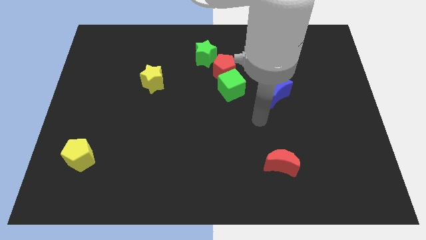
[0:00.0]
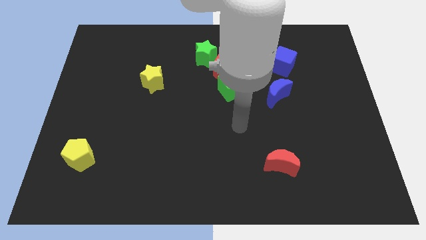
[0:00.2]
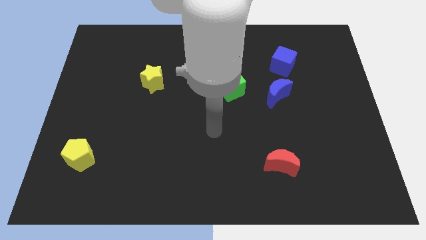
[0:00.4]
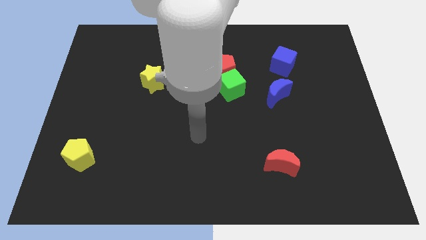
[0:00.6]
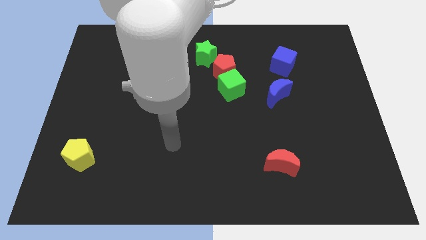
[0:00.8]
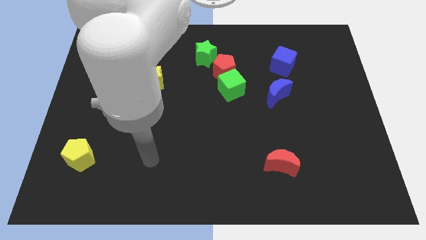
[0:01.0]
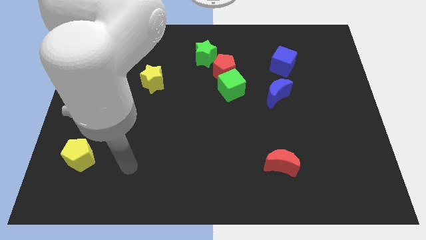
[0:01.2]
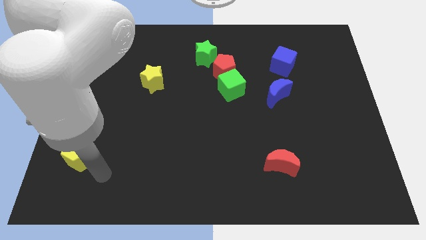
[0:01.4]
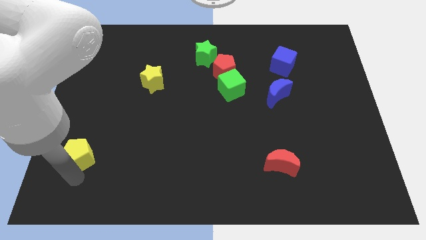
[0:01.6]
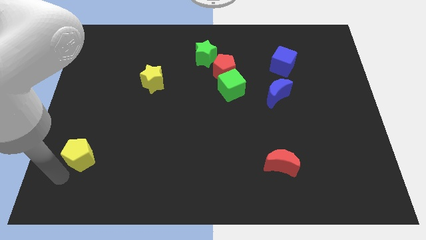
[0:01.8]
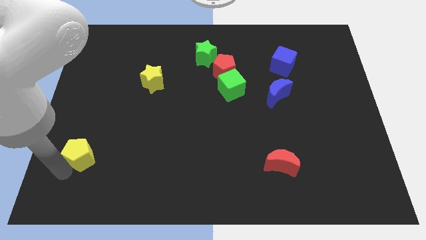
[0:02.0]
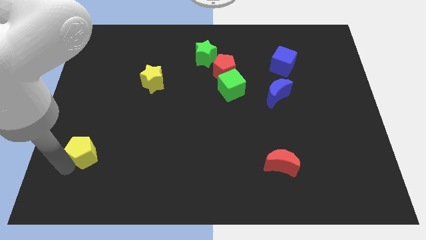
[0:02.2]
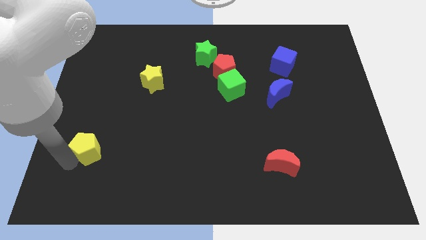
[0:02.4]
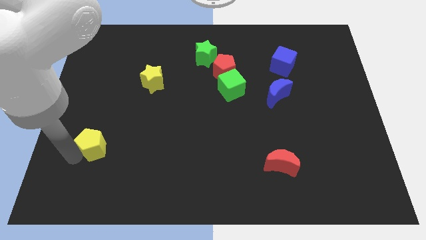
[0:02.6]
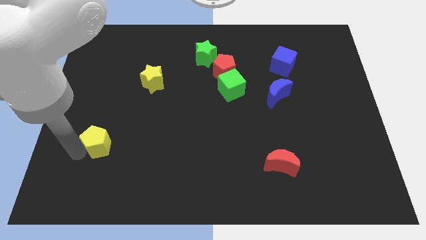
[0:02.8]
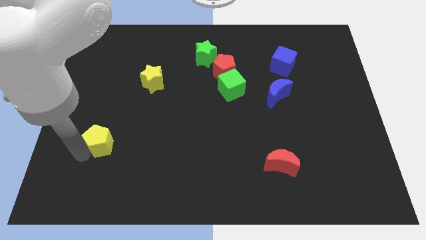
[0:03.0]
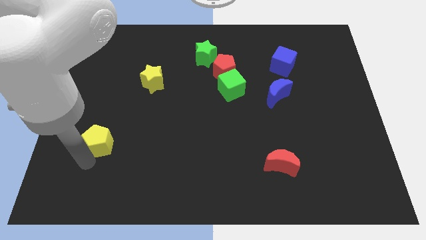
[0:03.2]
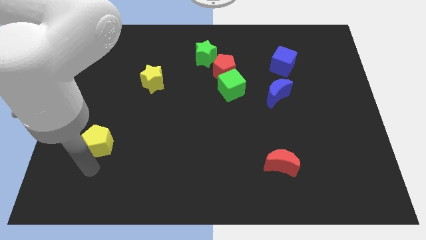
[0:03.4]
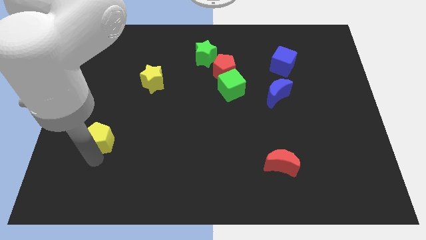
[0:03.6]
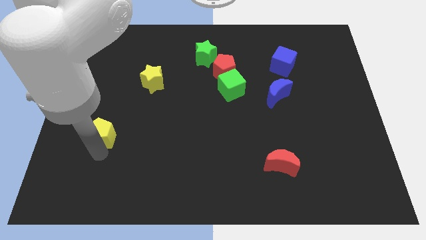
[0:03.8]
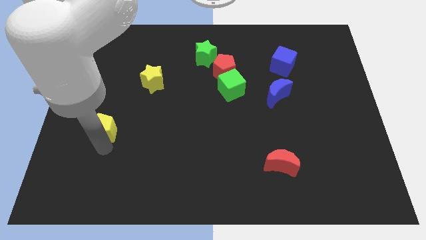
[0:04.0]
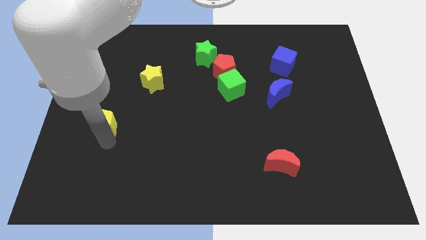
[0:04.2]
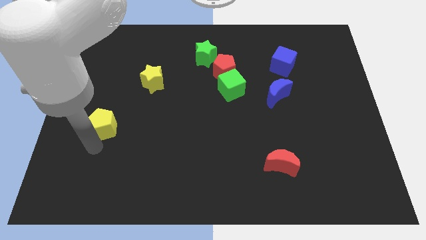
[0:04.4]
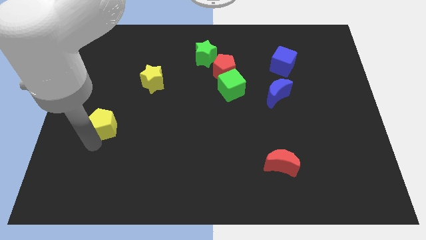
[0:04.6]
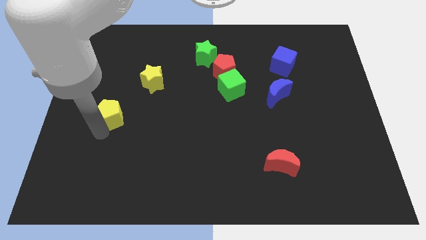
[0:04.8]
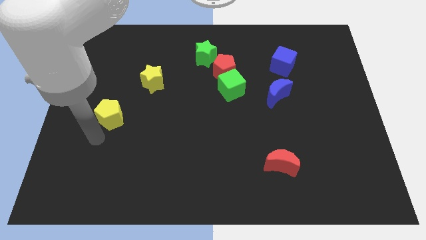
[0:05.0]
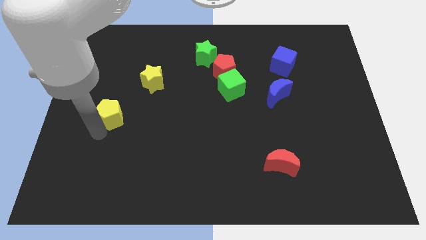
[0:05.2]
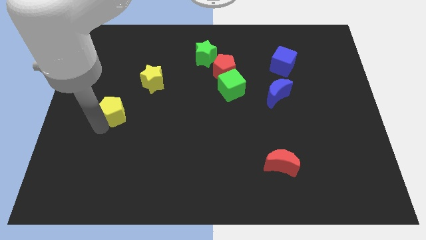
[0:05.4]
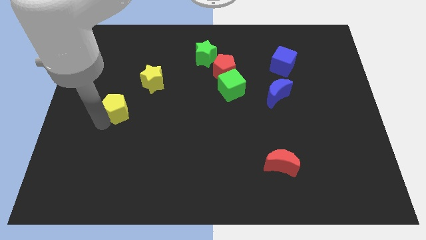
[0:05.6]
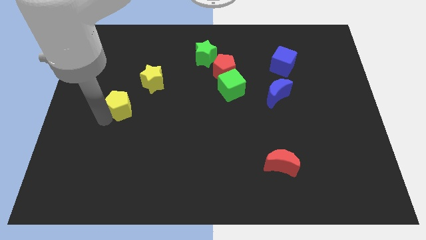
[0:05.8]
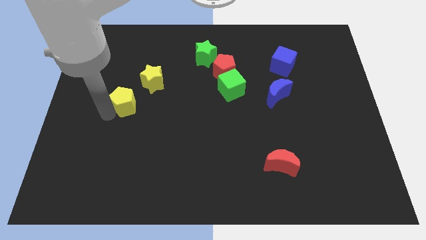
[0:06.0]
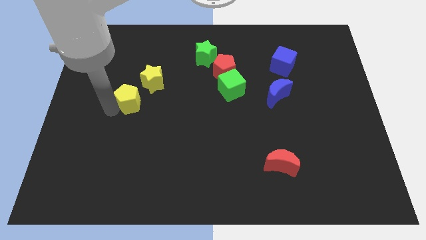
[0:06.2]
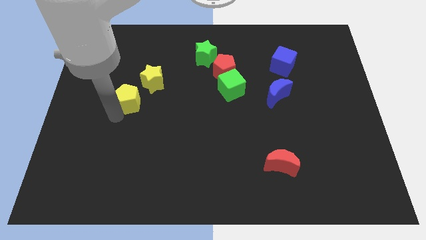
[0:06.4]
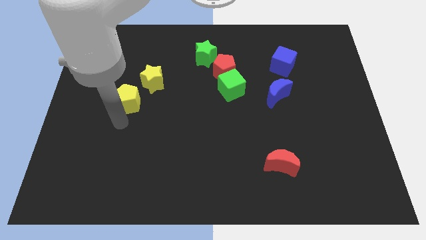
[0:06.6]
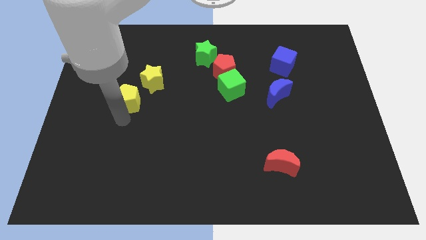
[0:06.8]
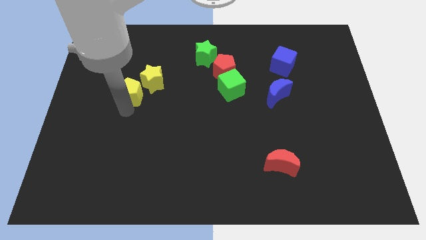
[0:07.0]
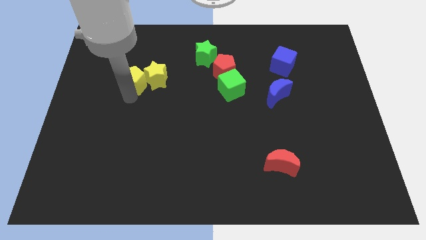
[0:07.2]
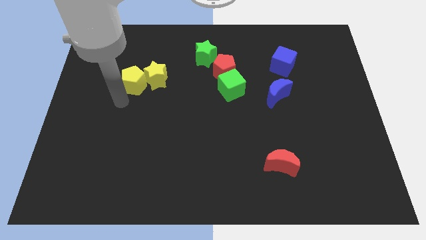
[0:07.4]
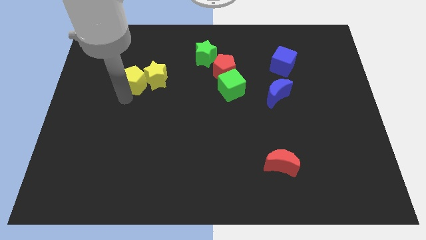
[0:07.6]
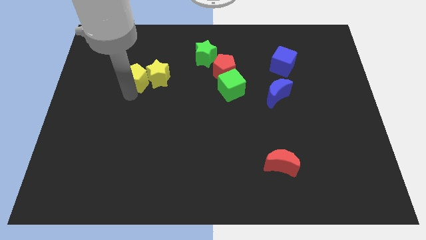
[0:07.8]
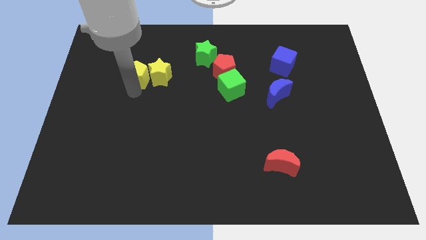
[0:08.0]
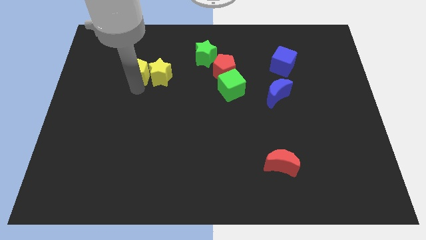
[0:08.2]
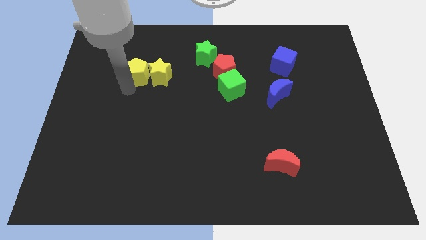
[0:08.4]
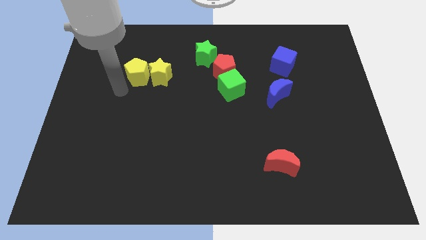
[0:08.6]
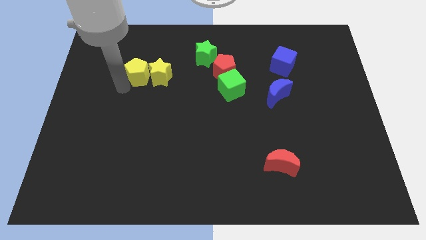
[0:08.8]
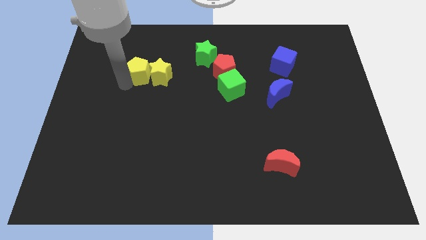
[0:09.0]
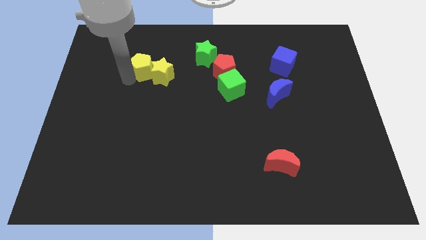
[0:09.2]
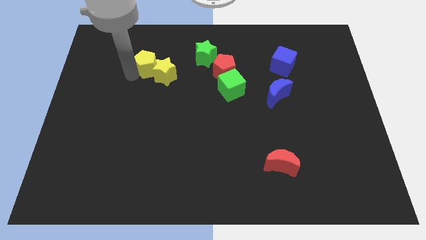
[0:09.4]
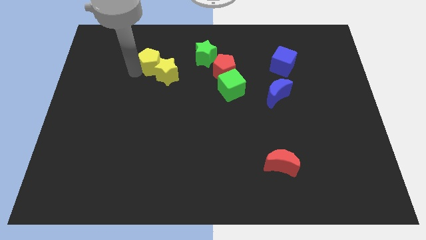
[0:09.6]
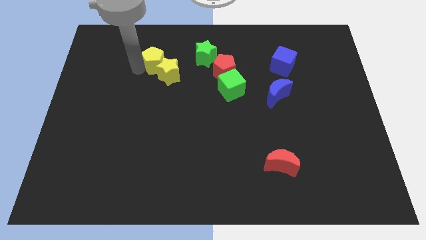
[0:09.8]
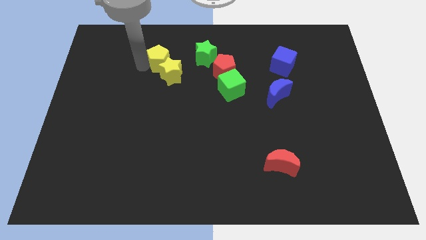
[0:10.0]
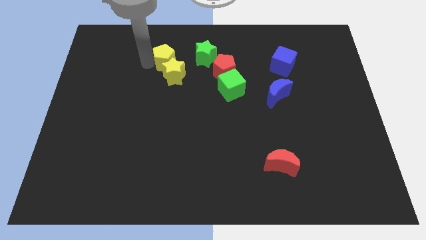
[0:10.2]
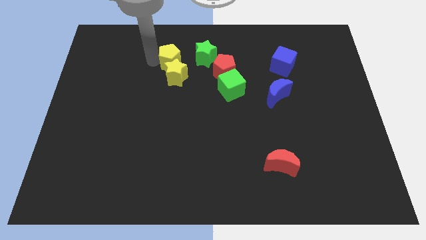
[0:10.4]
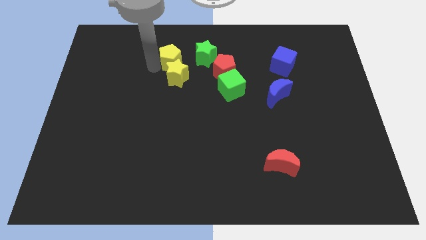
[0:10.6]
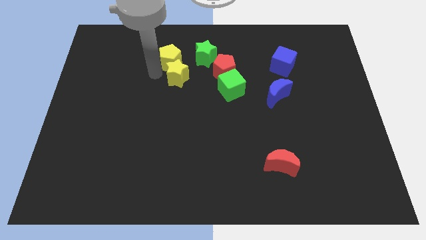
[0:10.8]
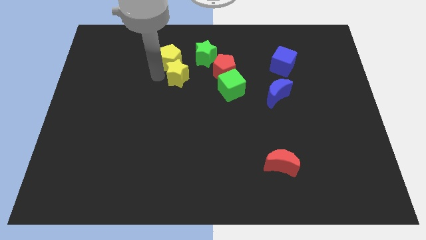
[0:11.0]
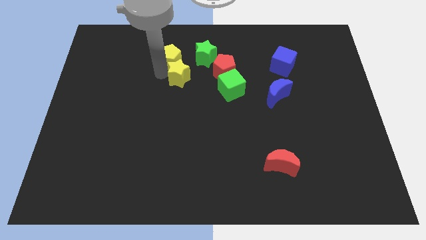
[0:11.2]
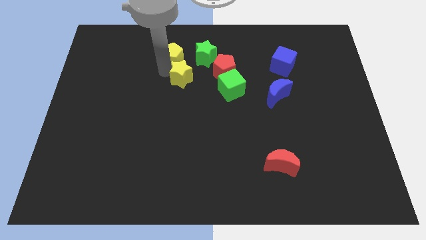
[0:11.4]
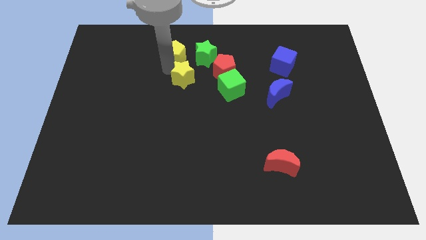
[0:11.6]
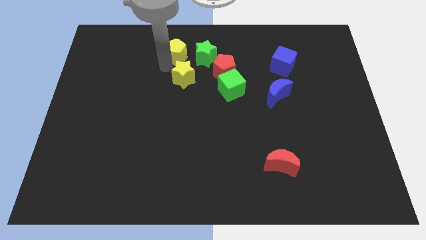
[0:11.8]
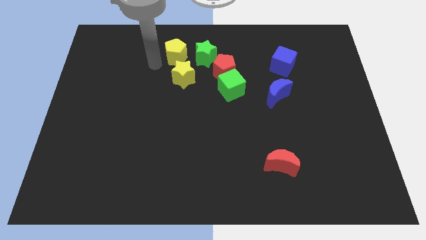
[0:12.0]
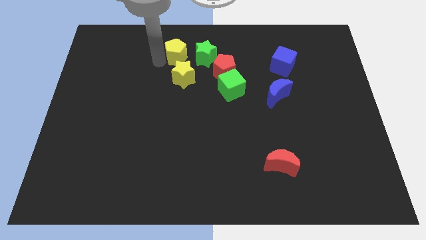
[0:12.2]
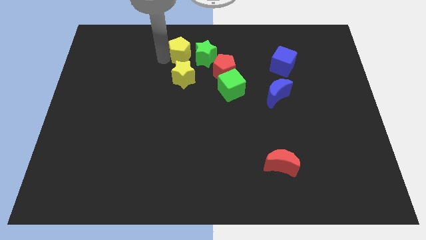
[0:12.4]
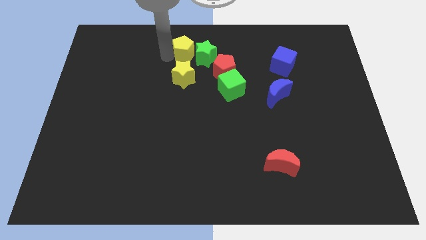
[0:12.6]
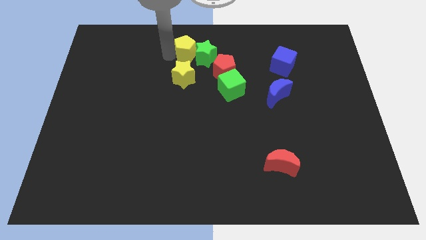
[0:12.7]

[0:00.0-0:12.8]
slide the yellow pentagon to the top side

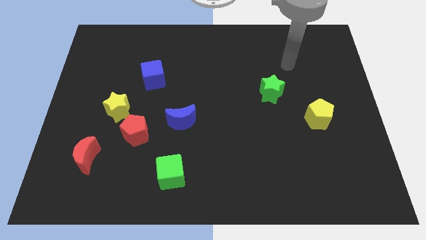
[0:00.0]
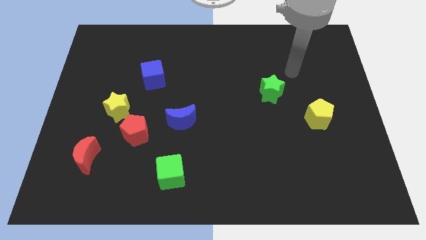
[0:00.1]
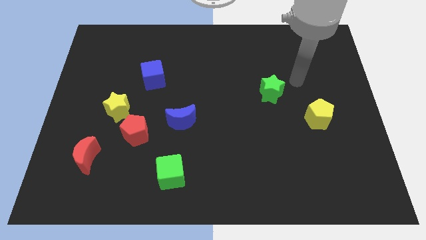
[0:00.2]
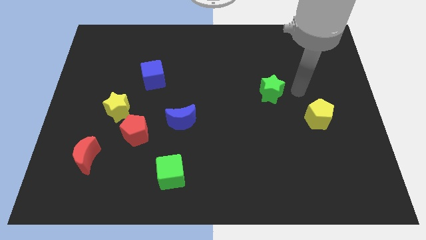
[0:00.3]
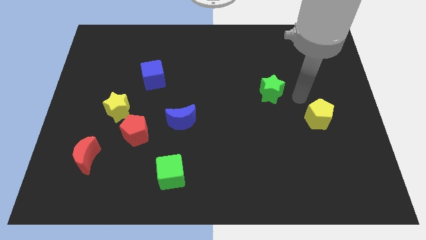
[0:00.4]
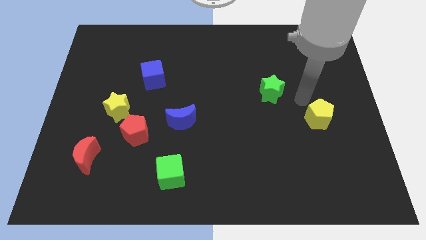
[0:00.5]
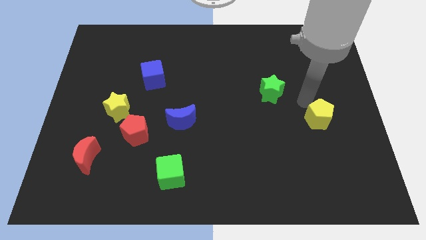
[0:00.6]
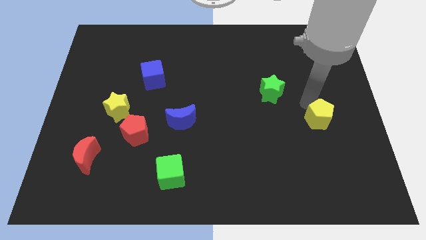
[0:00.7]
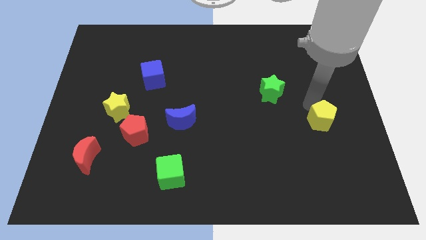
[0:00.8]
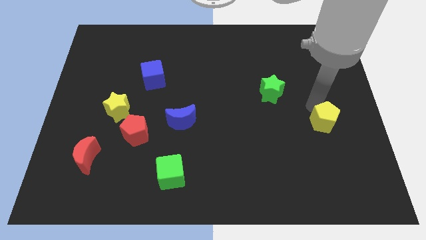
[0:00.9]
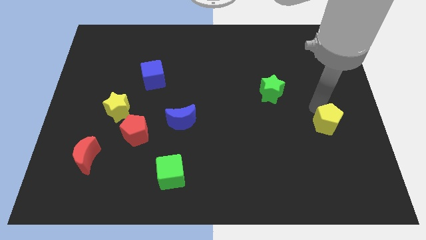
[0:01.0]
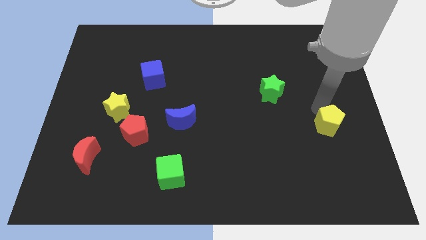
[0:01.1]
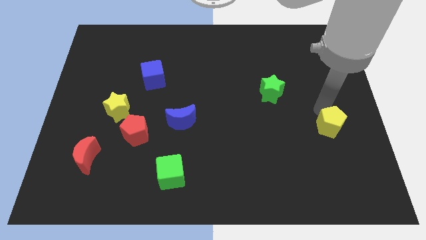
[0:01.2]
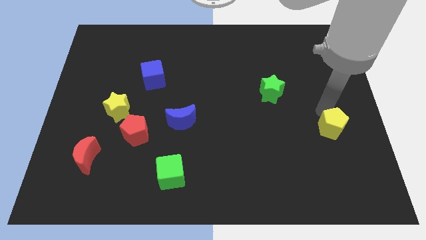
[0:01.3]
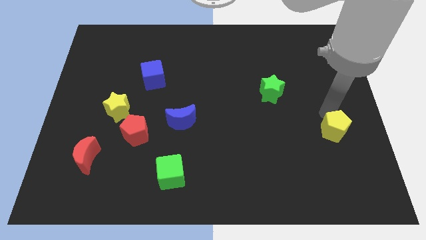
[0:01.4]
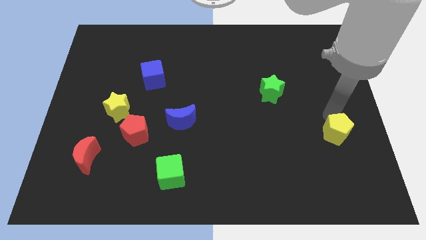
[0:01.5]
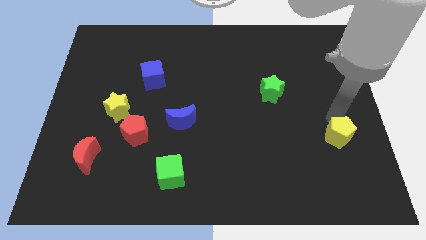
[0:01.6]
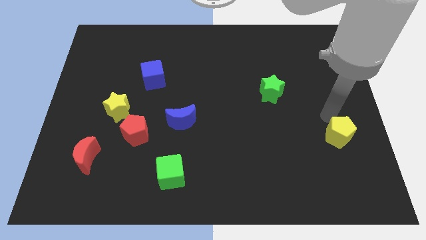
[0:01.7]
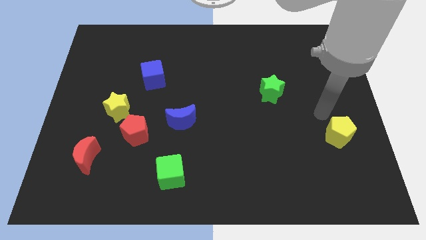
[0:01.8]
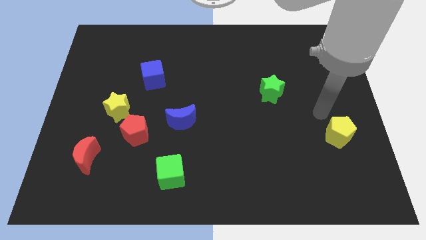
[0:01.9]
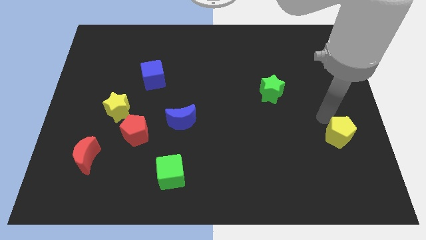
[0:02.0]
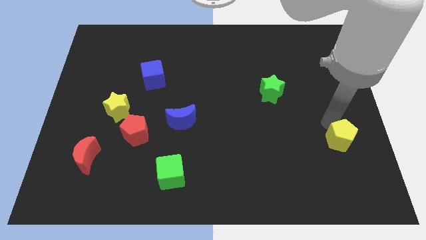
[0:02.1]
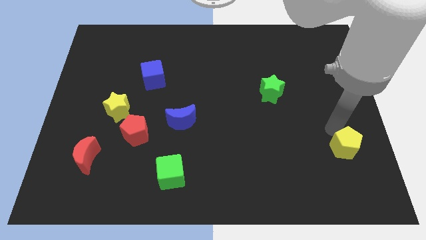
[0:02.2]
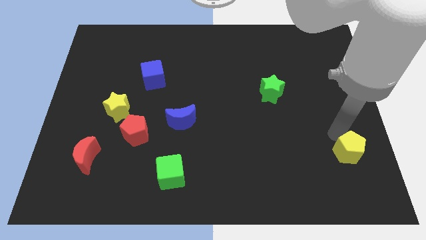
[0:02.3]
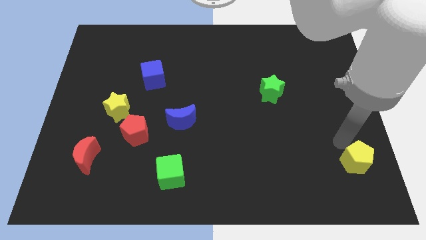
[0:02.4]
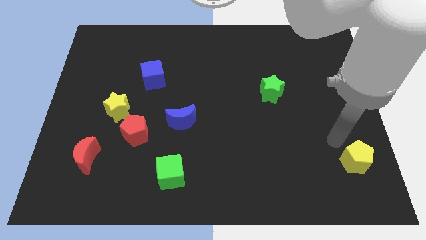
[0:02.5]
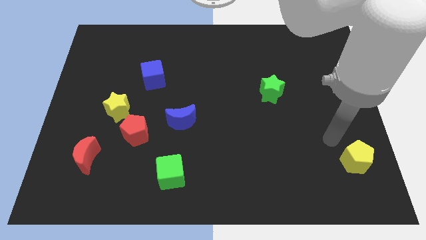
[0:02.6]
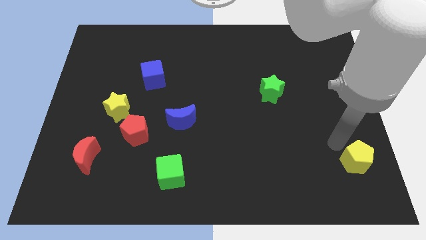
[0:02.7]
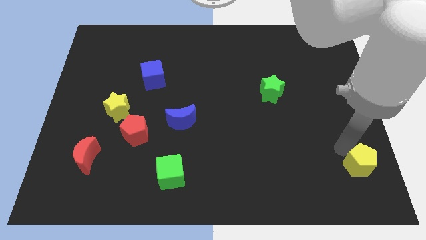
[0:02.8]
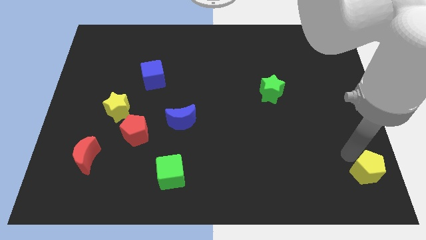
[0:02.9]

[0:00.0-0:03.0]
move the yellow pentagon to the bottom right
